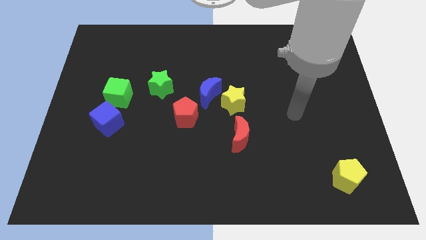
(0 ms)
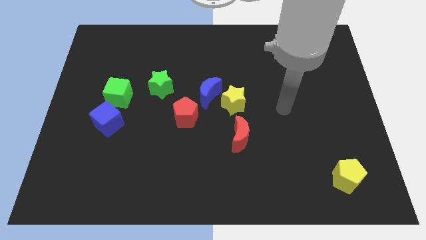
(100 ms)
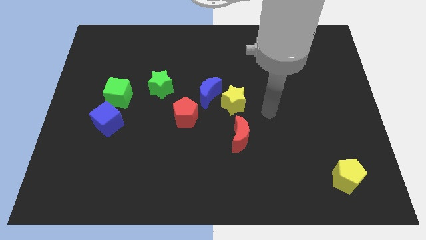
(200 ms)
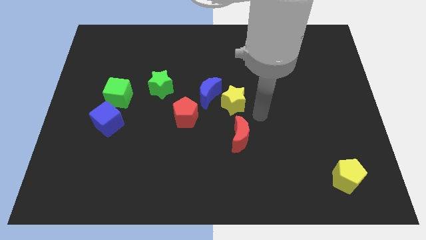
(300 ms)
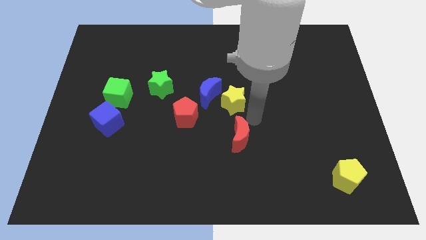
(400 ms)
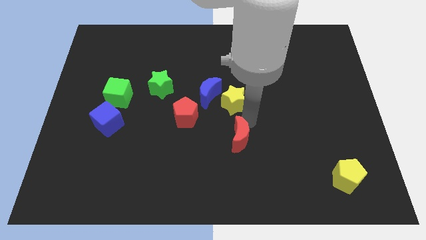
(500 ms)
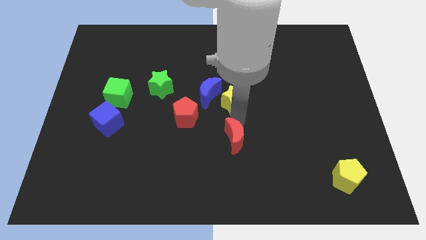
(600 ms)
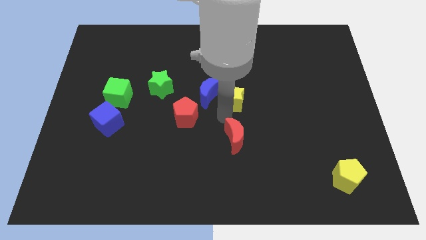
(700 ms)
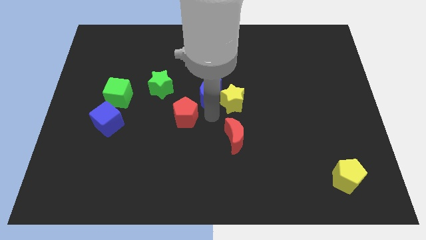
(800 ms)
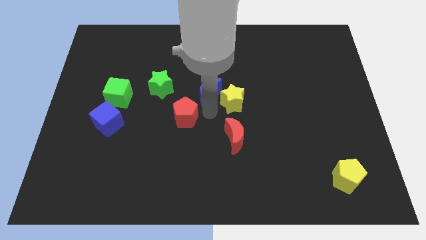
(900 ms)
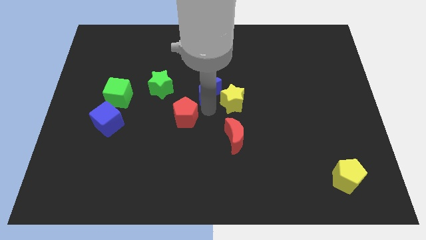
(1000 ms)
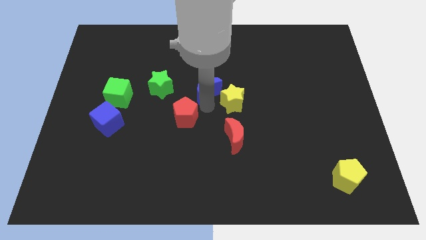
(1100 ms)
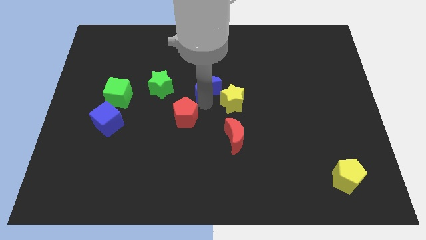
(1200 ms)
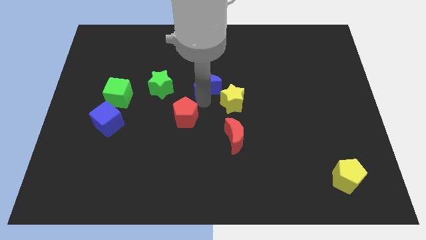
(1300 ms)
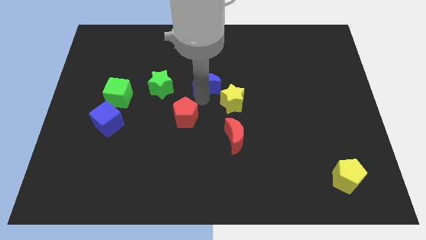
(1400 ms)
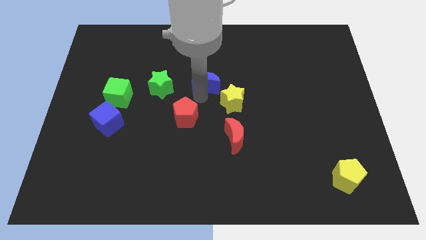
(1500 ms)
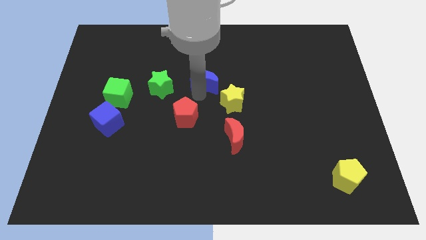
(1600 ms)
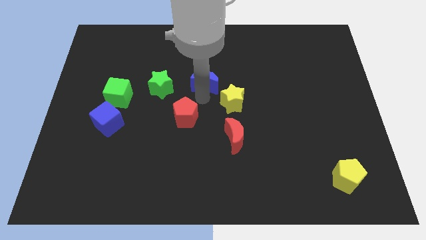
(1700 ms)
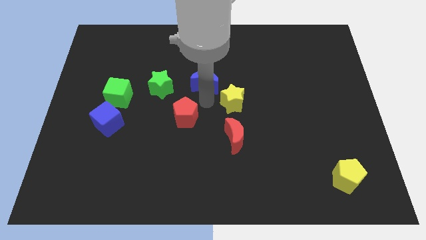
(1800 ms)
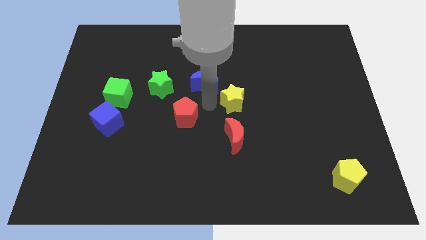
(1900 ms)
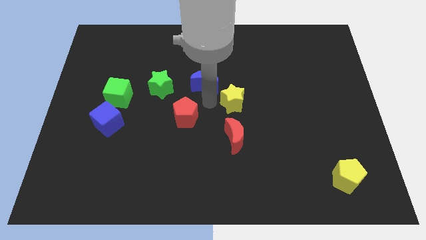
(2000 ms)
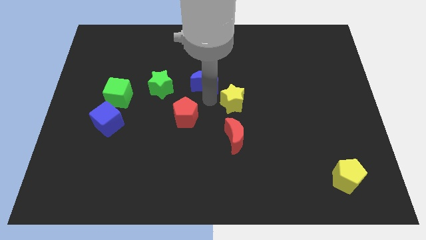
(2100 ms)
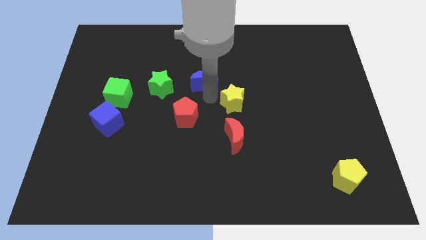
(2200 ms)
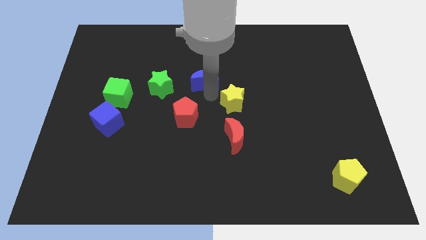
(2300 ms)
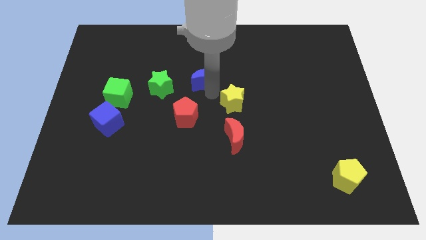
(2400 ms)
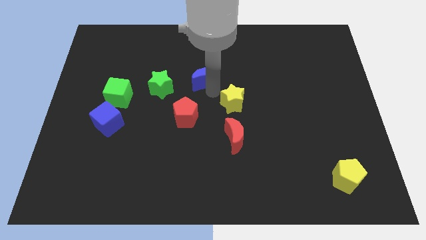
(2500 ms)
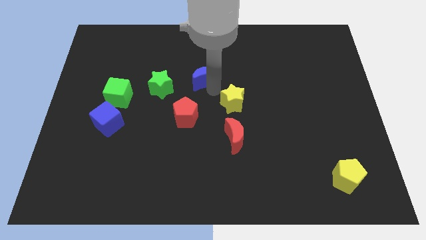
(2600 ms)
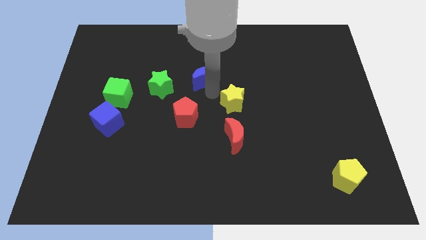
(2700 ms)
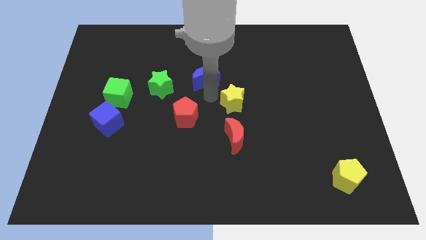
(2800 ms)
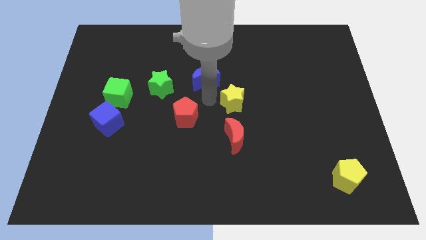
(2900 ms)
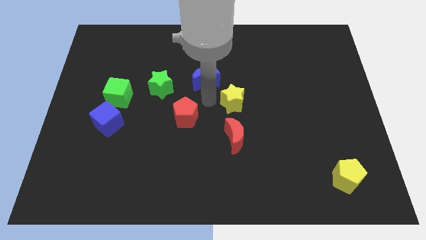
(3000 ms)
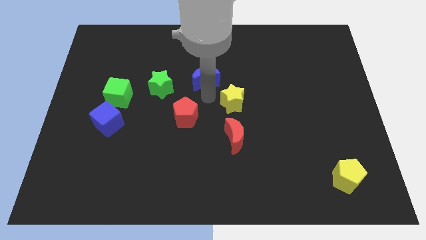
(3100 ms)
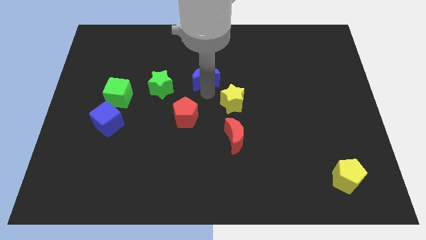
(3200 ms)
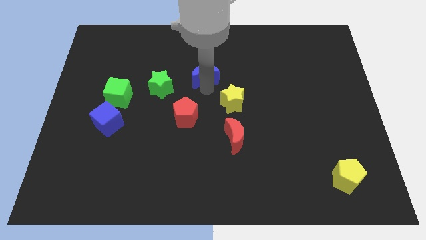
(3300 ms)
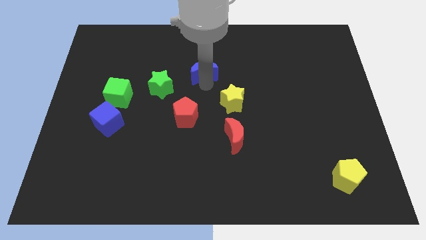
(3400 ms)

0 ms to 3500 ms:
separate the blue moon from the yellow star and red pentagon

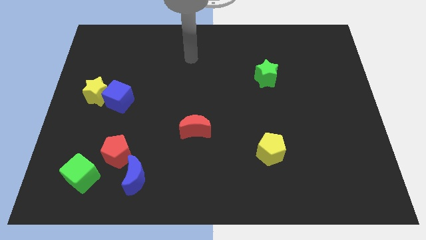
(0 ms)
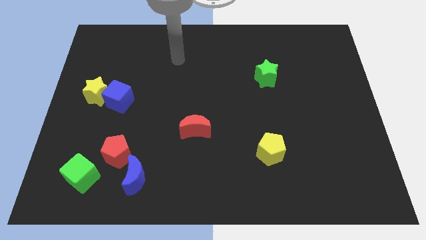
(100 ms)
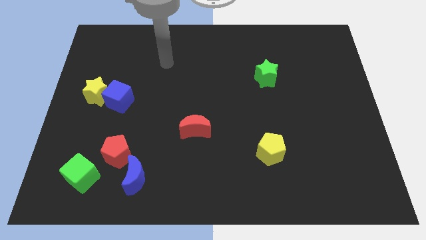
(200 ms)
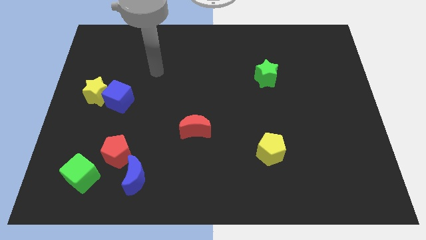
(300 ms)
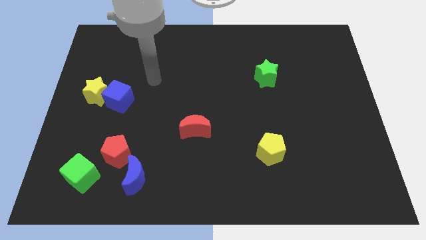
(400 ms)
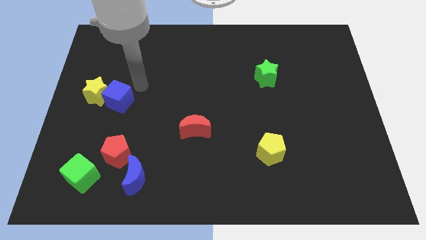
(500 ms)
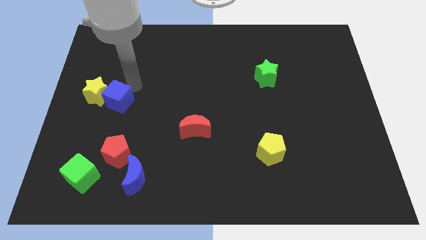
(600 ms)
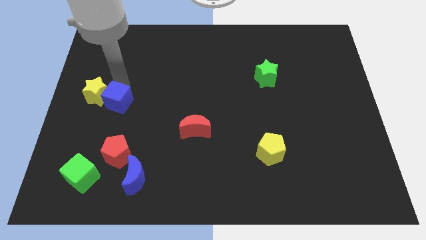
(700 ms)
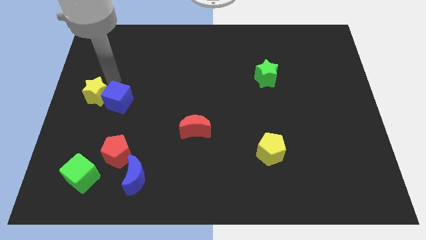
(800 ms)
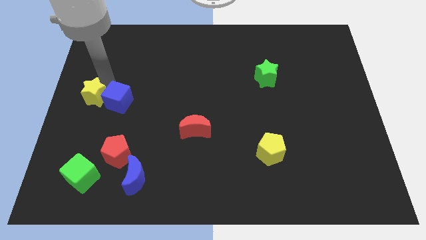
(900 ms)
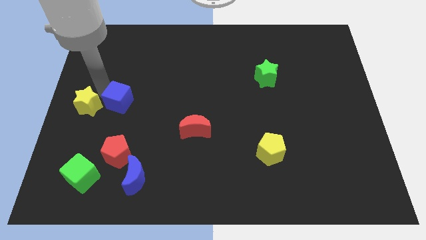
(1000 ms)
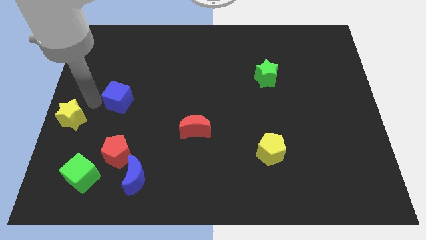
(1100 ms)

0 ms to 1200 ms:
pull the blue cube apart from the yellow star

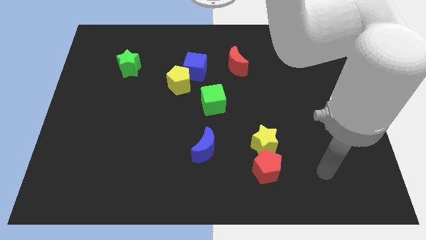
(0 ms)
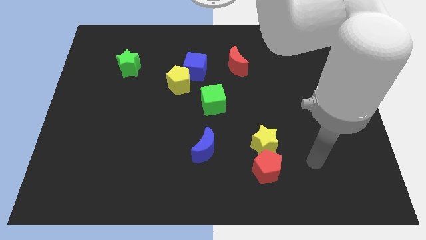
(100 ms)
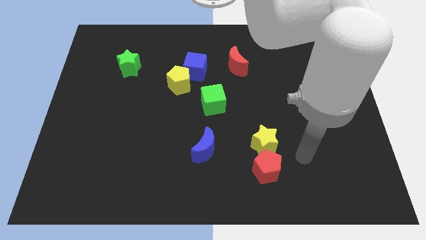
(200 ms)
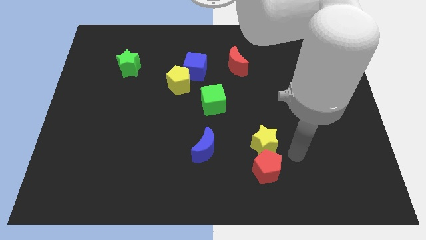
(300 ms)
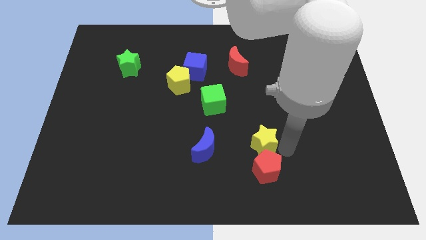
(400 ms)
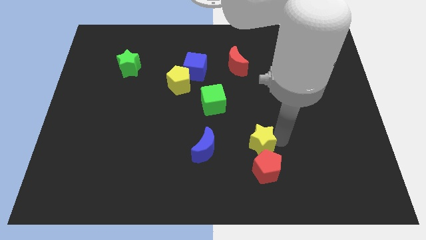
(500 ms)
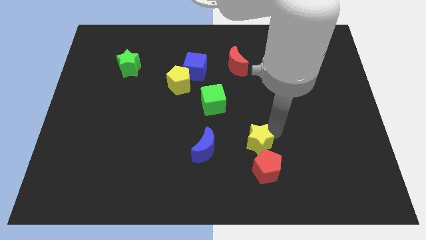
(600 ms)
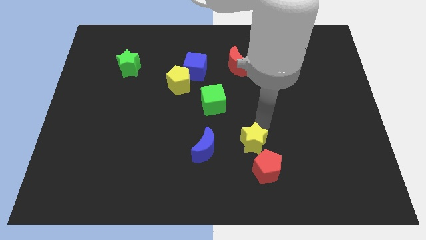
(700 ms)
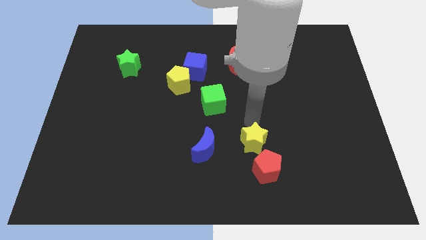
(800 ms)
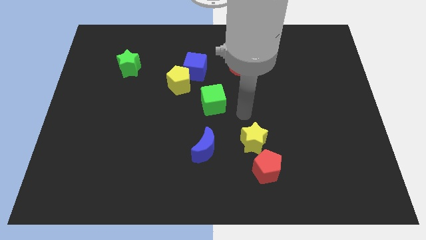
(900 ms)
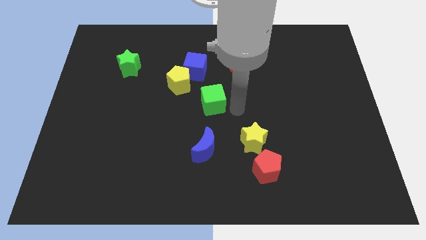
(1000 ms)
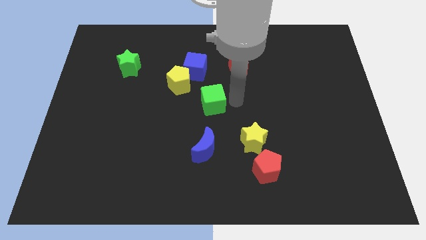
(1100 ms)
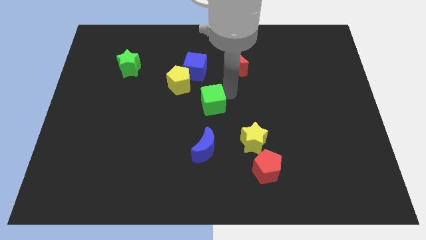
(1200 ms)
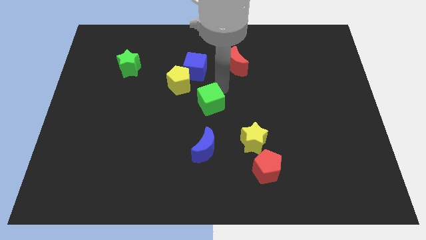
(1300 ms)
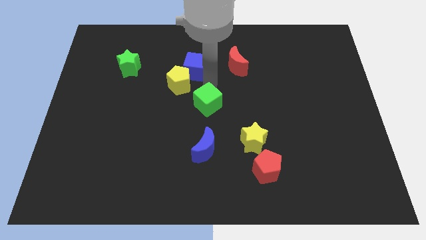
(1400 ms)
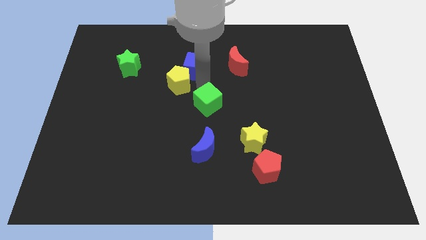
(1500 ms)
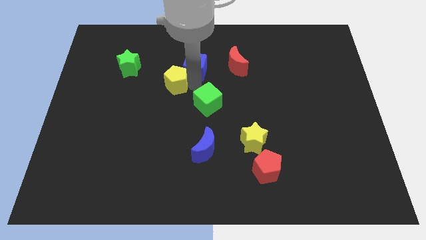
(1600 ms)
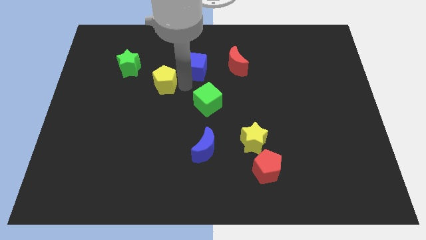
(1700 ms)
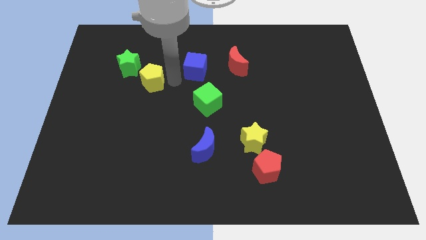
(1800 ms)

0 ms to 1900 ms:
pull the blue cube apart from the yellow pentagon

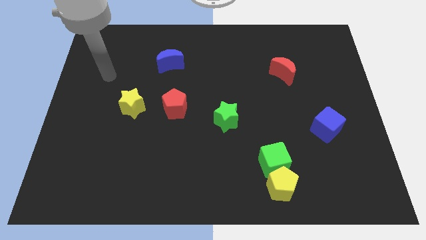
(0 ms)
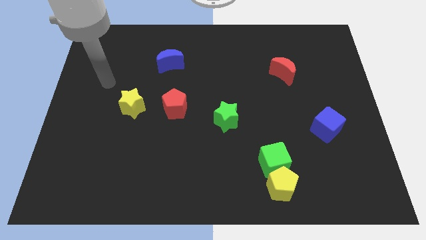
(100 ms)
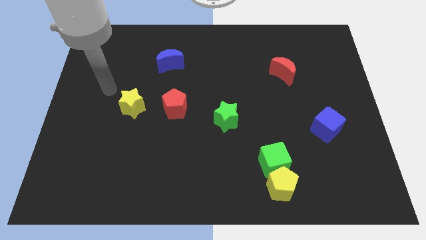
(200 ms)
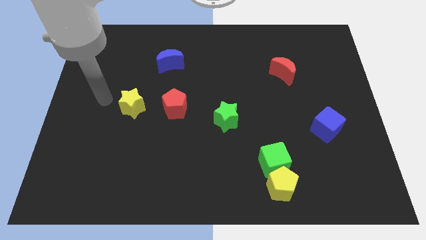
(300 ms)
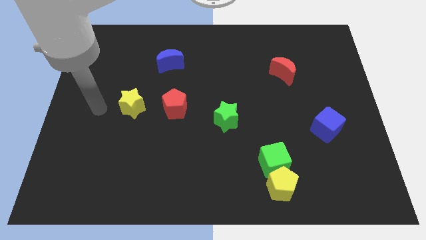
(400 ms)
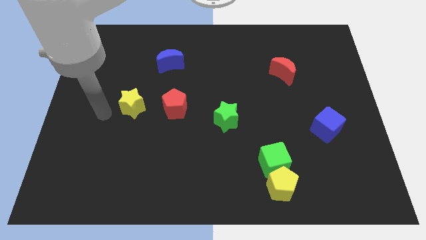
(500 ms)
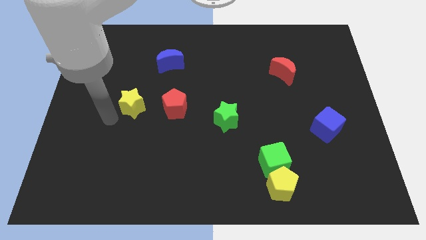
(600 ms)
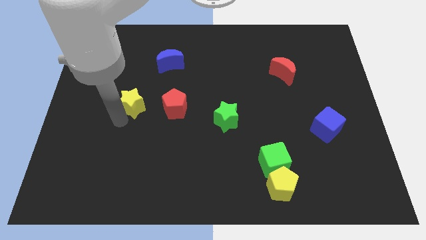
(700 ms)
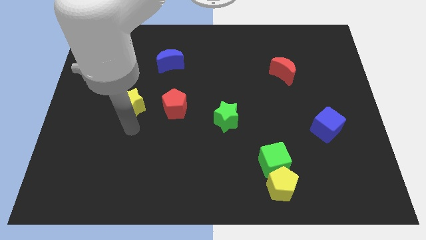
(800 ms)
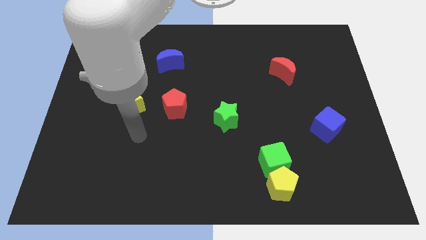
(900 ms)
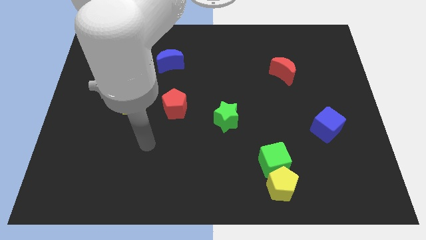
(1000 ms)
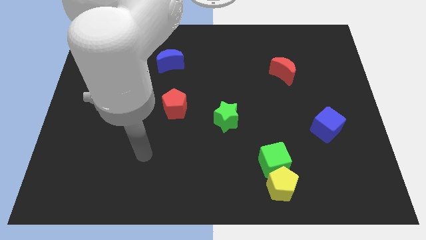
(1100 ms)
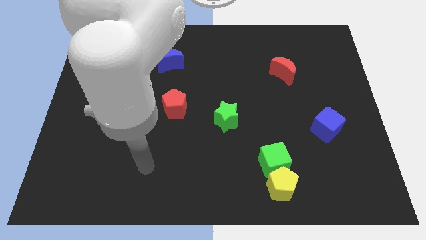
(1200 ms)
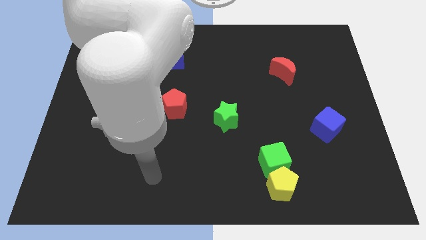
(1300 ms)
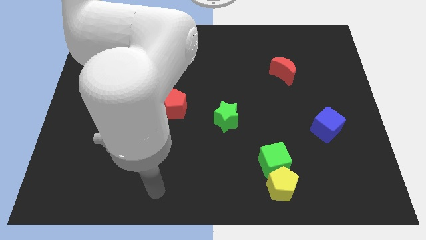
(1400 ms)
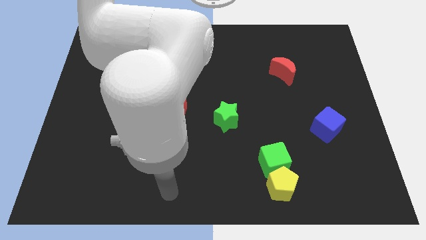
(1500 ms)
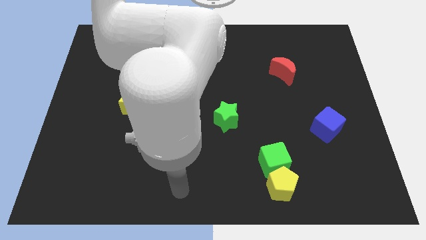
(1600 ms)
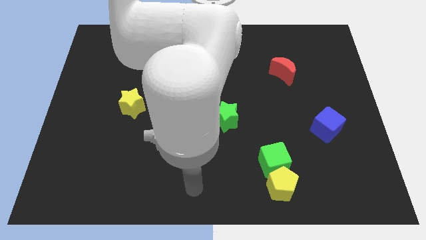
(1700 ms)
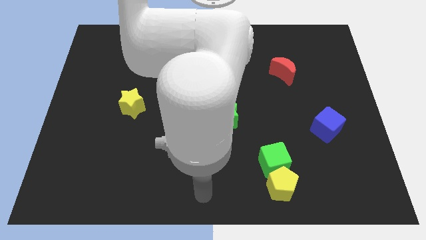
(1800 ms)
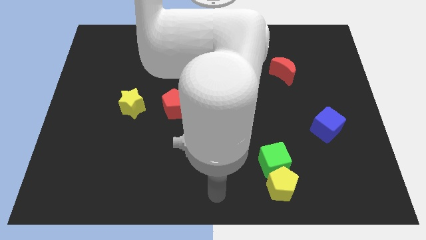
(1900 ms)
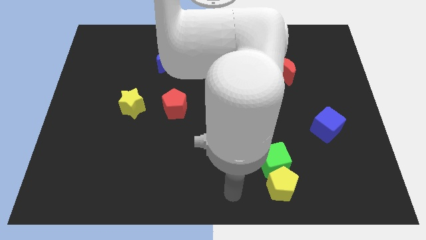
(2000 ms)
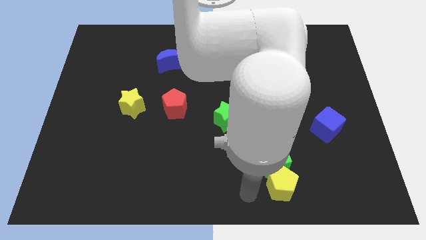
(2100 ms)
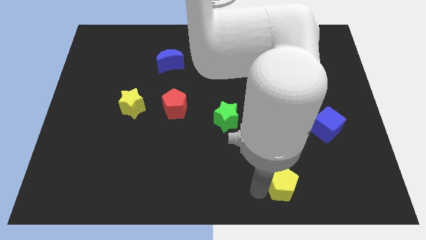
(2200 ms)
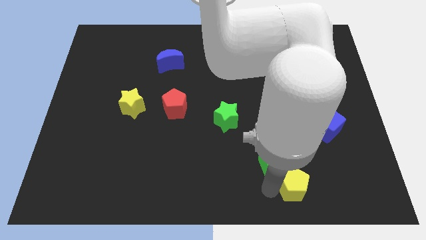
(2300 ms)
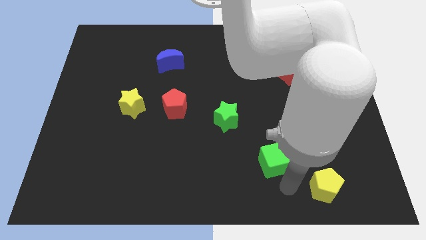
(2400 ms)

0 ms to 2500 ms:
pull the green cube apart from the yellow pentagon

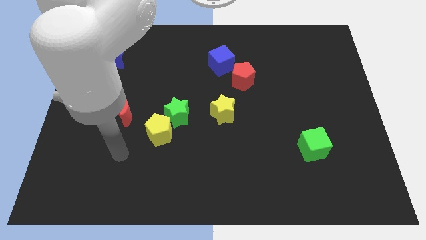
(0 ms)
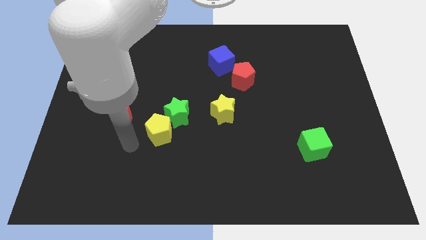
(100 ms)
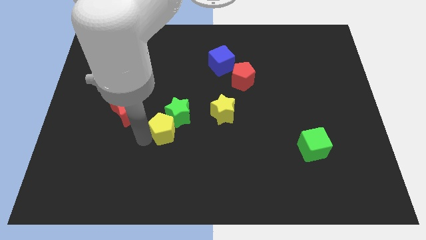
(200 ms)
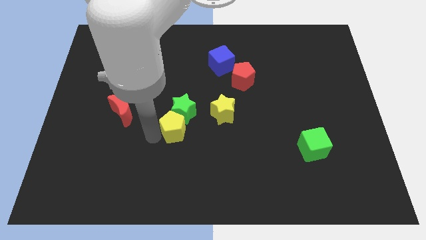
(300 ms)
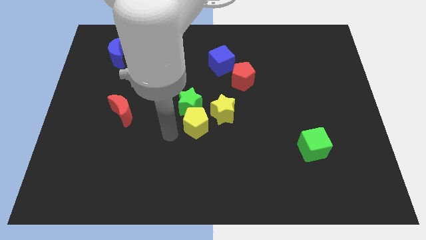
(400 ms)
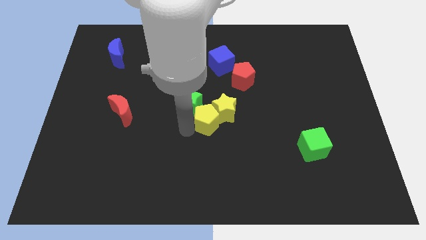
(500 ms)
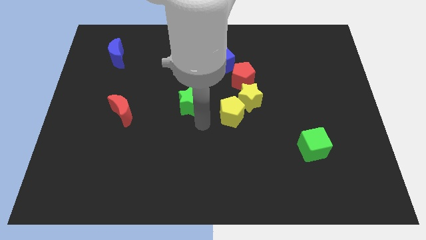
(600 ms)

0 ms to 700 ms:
move the green star away from the yellow pentagon
